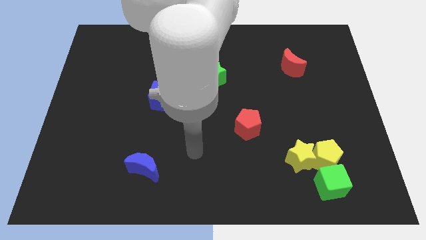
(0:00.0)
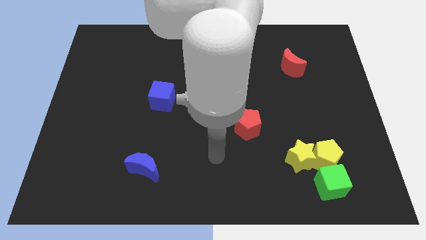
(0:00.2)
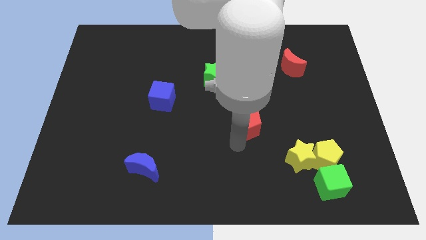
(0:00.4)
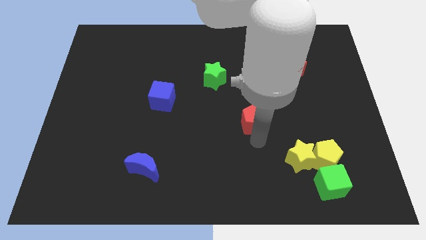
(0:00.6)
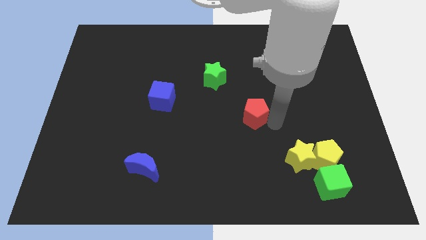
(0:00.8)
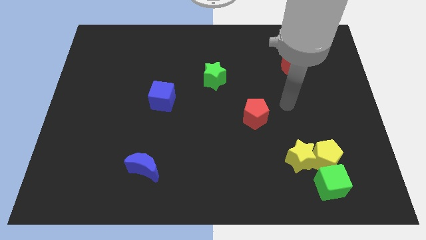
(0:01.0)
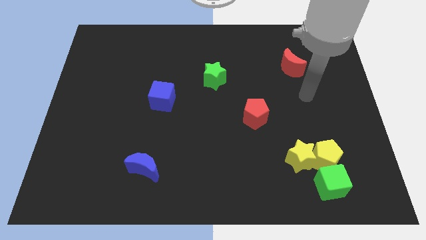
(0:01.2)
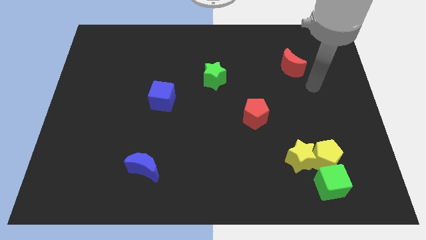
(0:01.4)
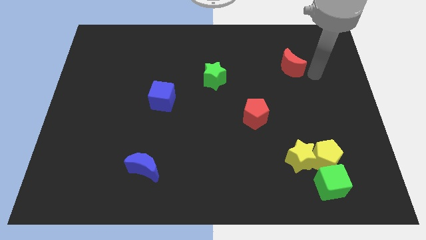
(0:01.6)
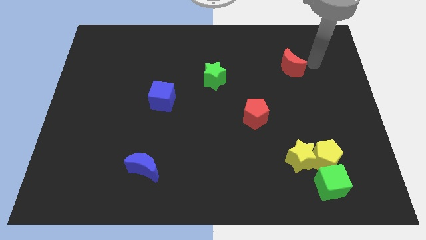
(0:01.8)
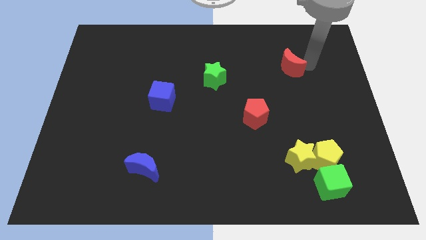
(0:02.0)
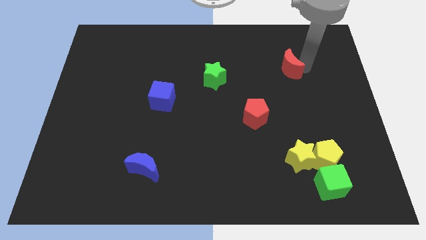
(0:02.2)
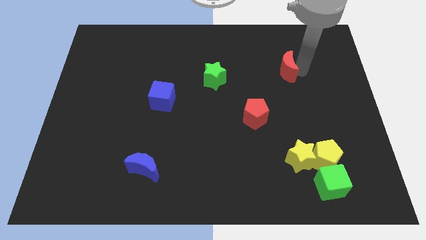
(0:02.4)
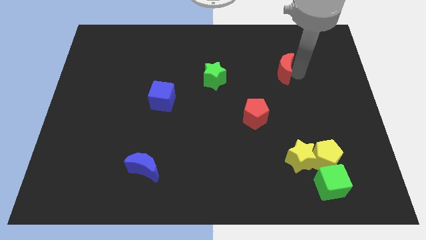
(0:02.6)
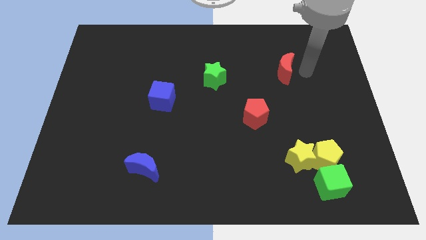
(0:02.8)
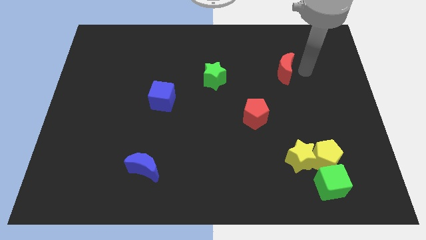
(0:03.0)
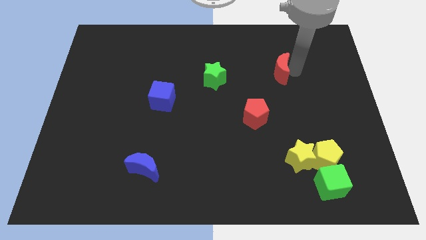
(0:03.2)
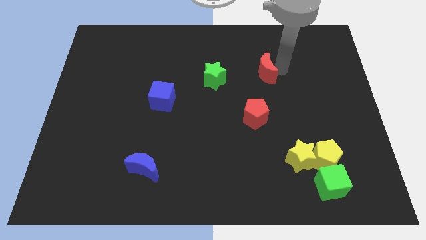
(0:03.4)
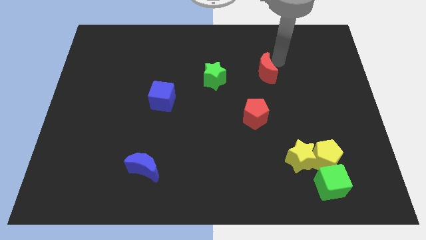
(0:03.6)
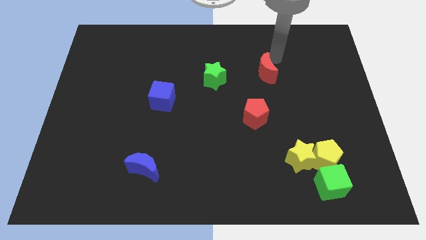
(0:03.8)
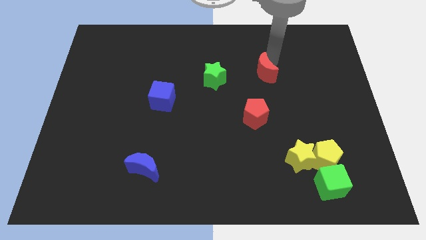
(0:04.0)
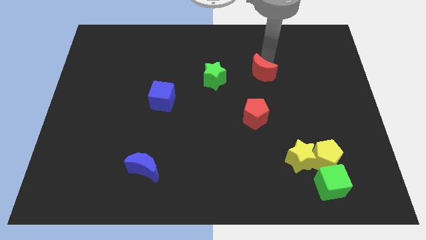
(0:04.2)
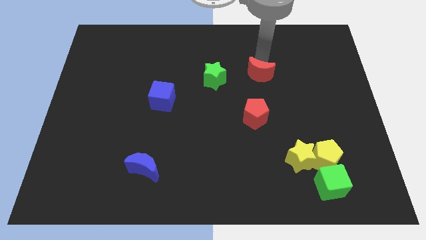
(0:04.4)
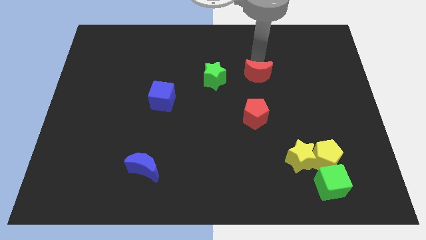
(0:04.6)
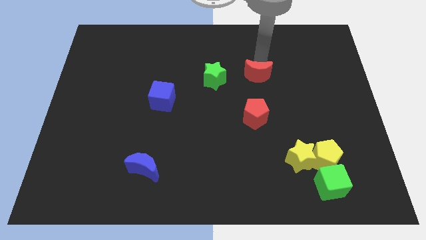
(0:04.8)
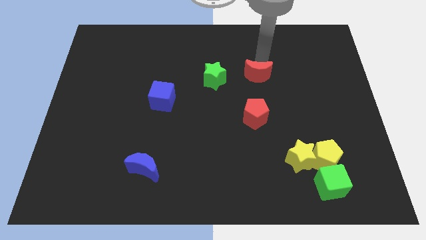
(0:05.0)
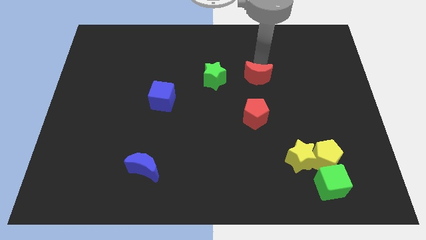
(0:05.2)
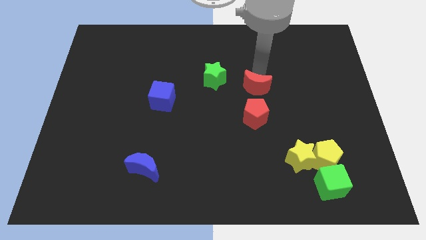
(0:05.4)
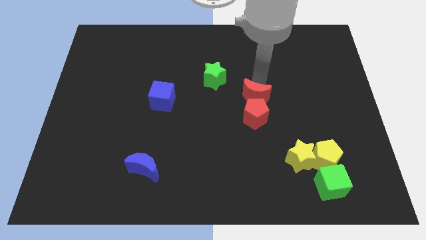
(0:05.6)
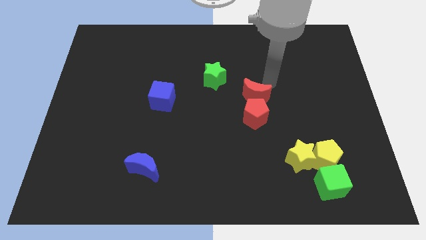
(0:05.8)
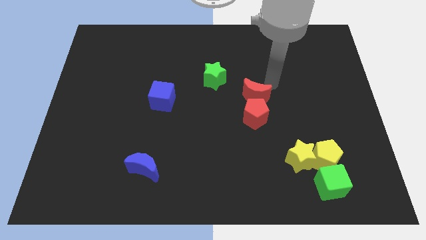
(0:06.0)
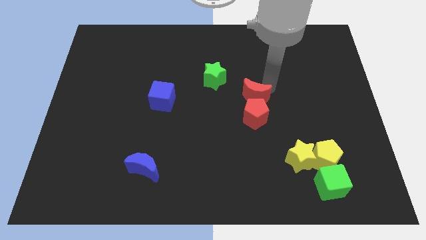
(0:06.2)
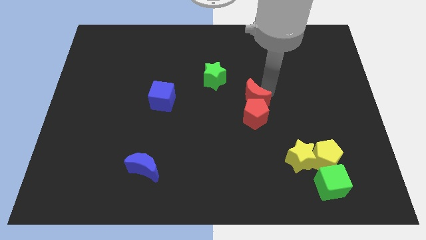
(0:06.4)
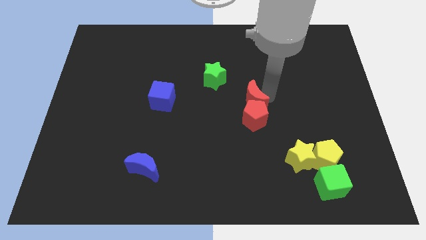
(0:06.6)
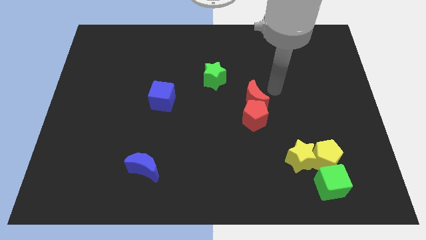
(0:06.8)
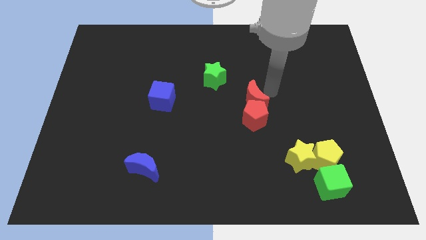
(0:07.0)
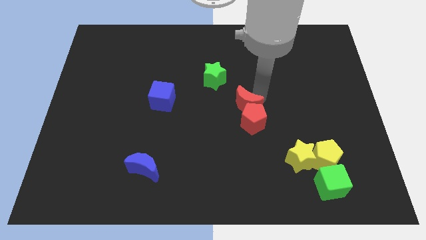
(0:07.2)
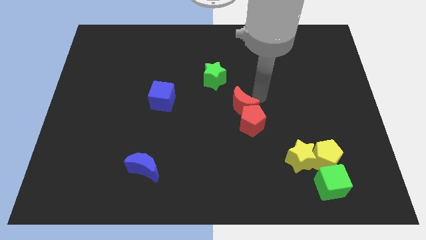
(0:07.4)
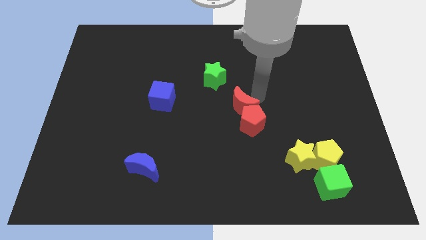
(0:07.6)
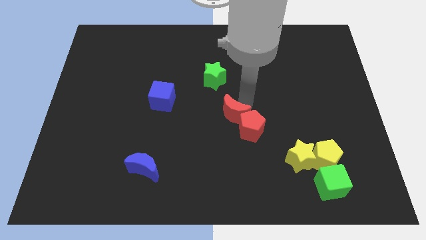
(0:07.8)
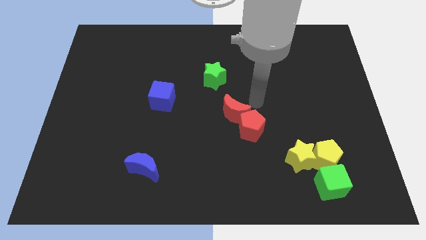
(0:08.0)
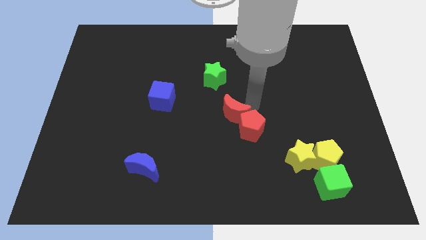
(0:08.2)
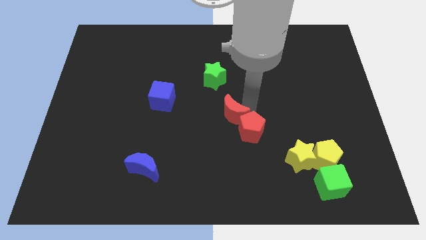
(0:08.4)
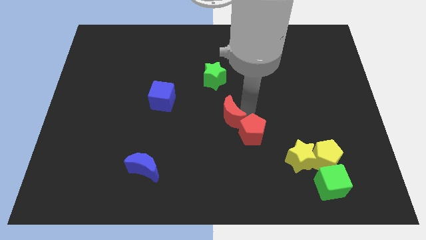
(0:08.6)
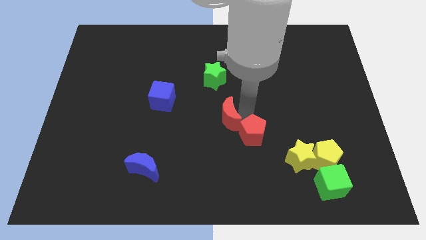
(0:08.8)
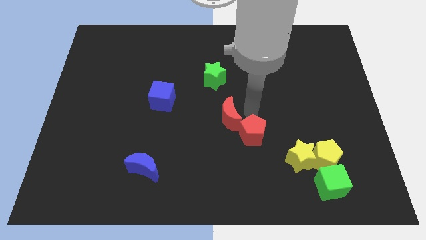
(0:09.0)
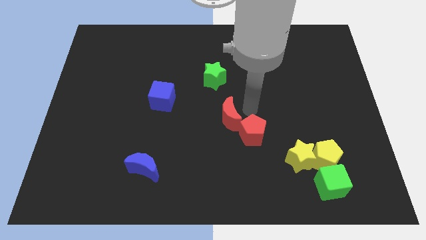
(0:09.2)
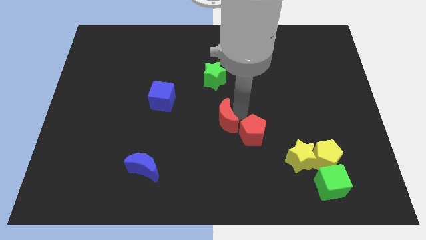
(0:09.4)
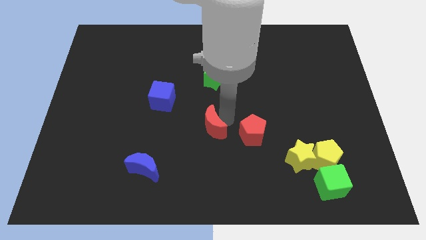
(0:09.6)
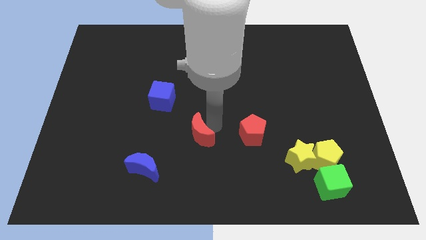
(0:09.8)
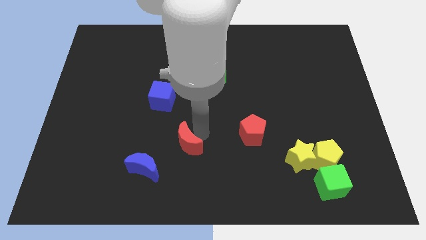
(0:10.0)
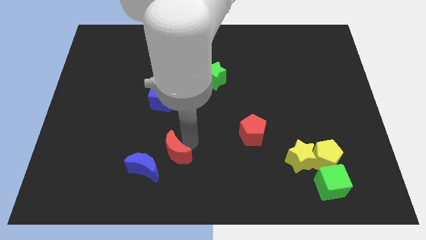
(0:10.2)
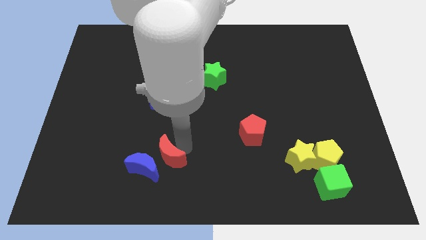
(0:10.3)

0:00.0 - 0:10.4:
move the red moon close to the blue moon

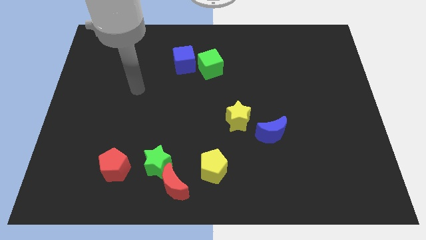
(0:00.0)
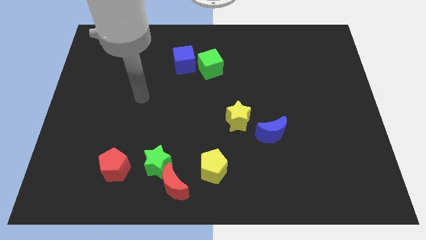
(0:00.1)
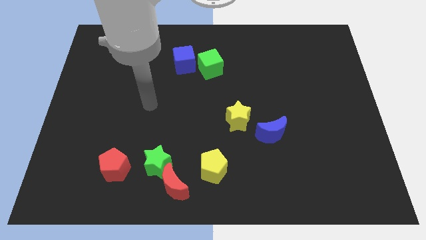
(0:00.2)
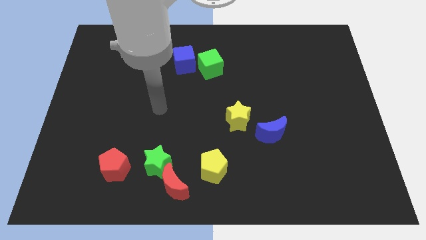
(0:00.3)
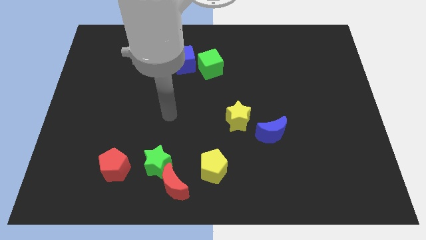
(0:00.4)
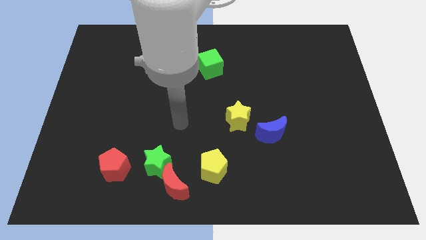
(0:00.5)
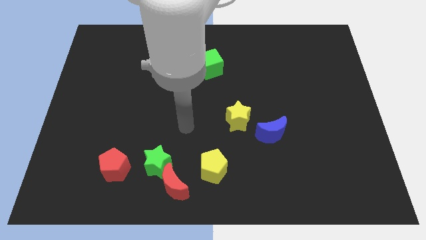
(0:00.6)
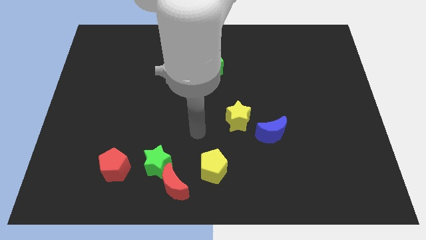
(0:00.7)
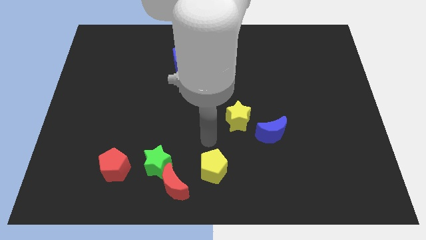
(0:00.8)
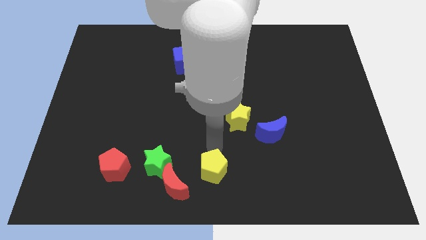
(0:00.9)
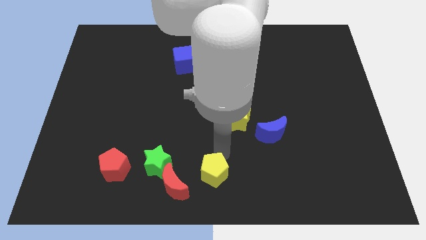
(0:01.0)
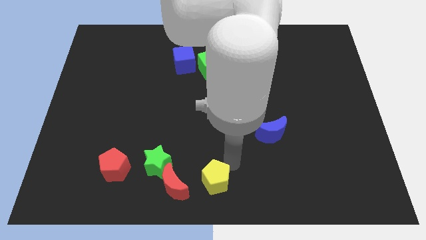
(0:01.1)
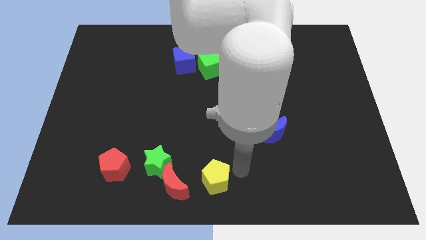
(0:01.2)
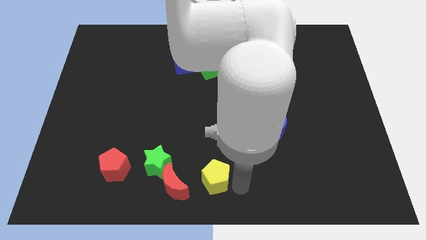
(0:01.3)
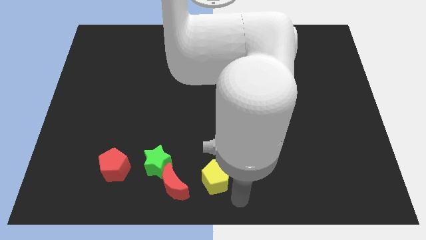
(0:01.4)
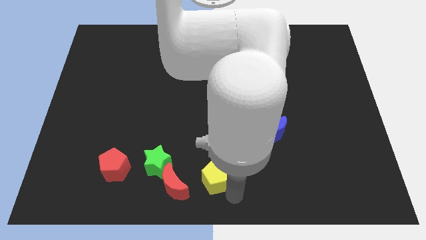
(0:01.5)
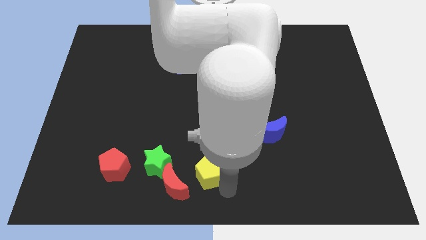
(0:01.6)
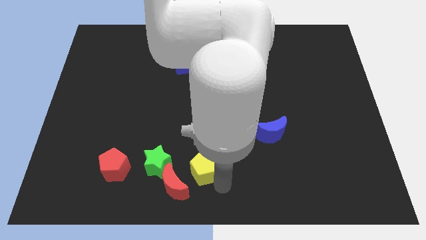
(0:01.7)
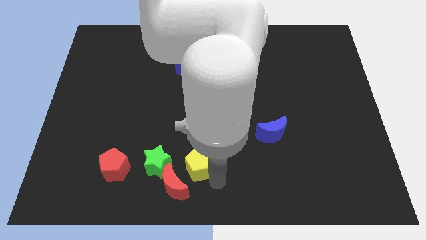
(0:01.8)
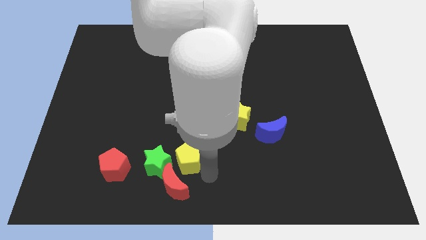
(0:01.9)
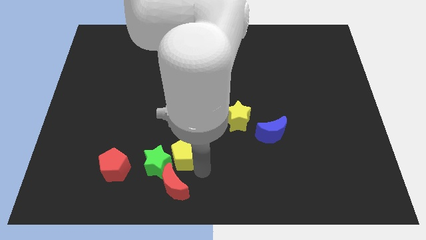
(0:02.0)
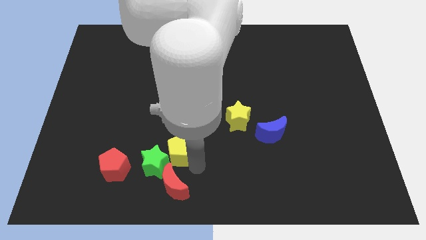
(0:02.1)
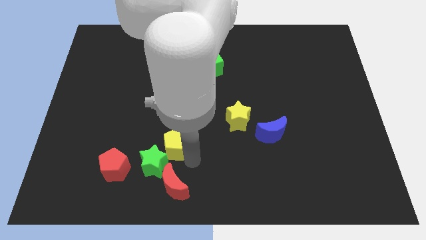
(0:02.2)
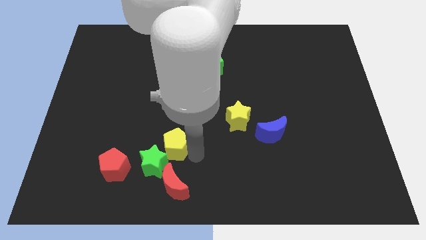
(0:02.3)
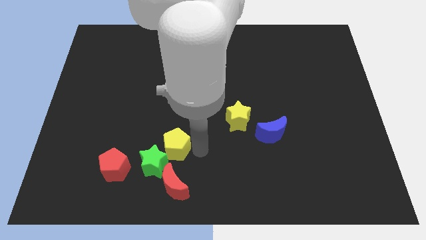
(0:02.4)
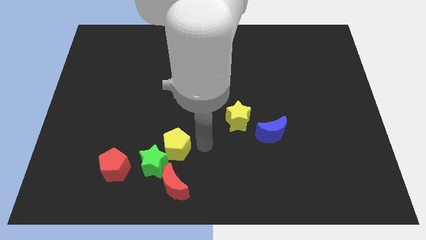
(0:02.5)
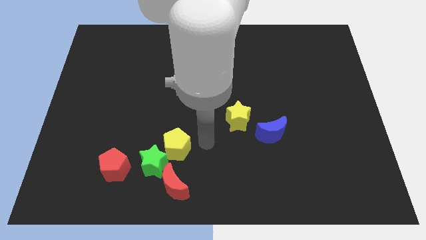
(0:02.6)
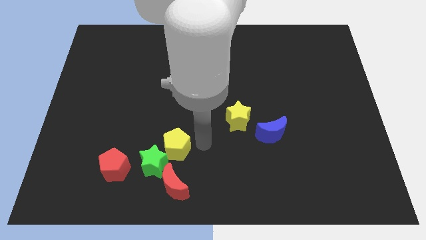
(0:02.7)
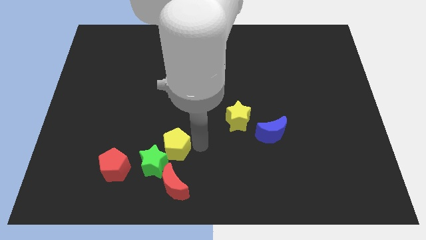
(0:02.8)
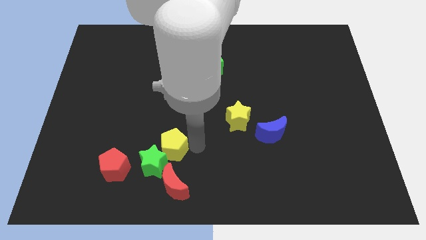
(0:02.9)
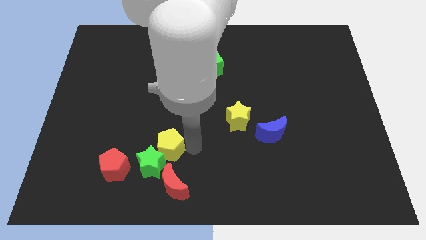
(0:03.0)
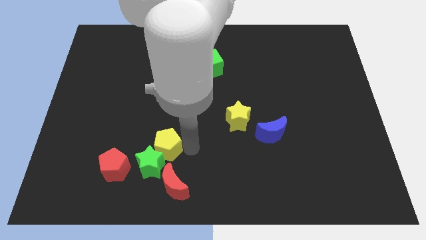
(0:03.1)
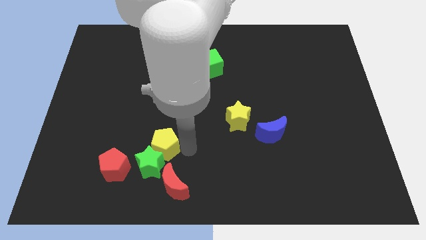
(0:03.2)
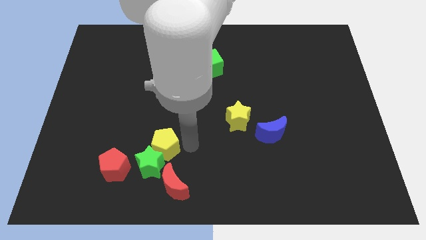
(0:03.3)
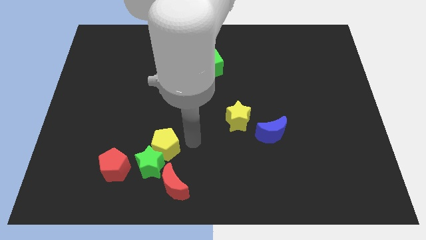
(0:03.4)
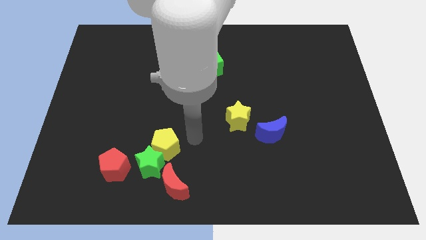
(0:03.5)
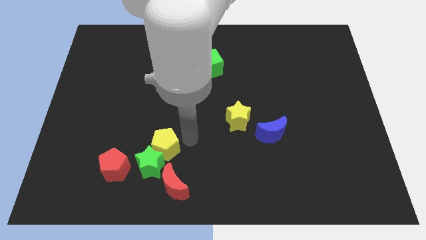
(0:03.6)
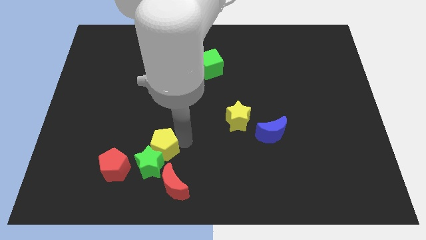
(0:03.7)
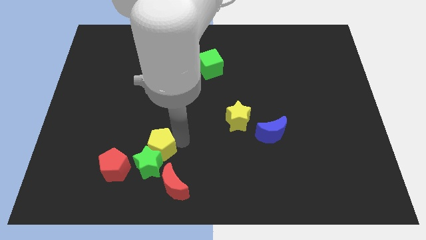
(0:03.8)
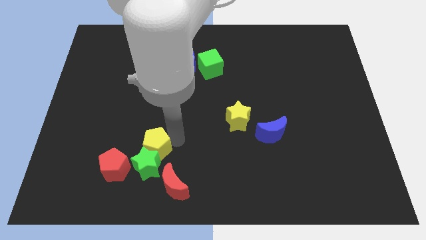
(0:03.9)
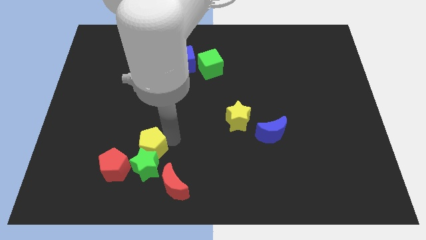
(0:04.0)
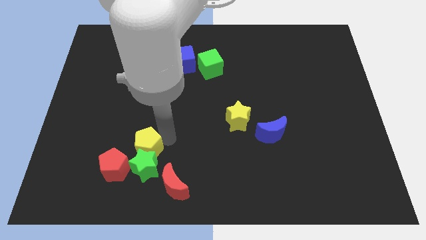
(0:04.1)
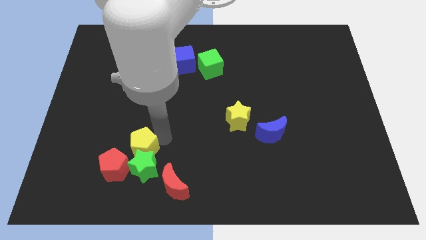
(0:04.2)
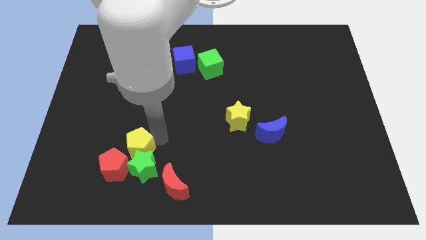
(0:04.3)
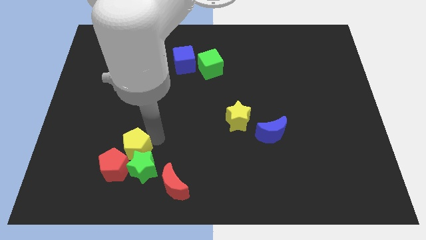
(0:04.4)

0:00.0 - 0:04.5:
slide the yellow pentagon towards the red pentagon
